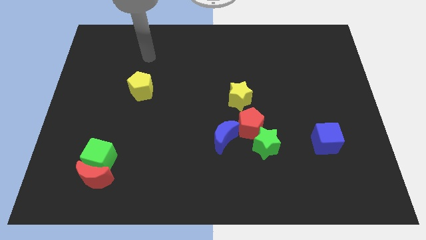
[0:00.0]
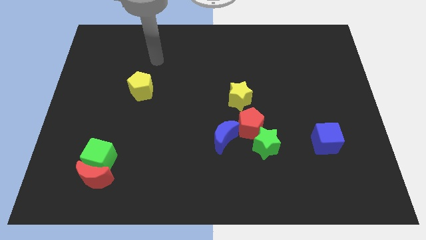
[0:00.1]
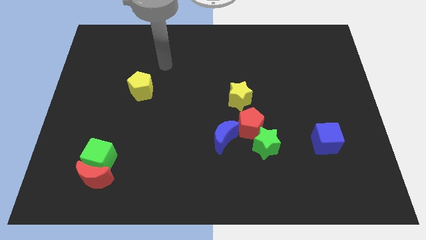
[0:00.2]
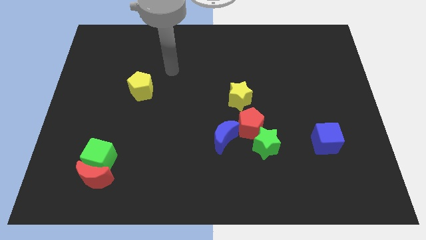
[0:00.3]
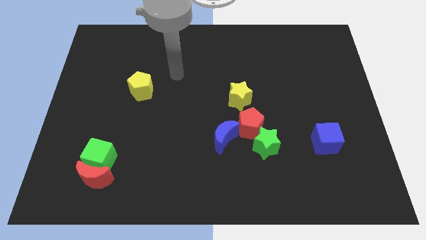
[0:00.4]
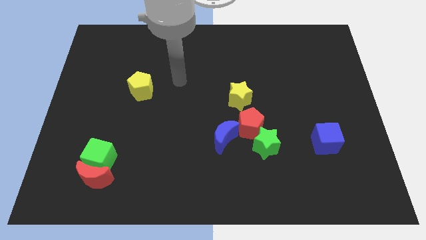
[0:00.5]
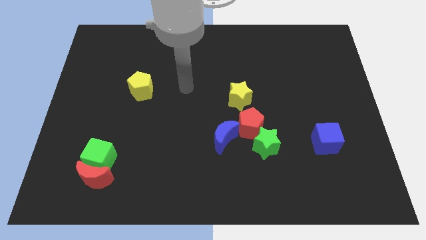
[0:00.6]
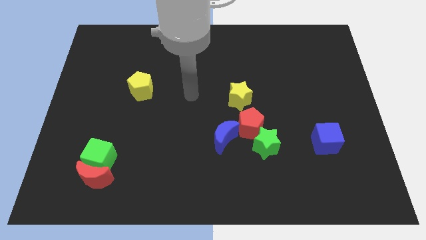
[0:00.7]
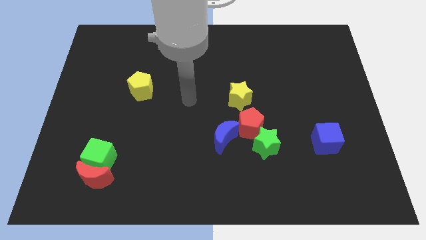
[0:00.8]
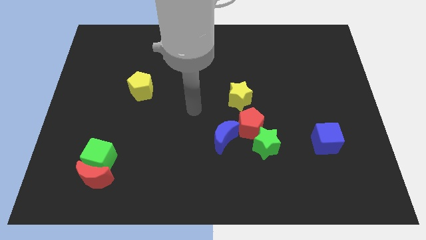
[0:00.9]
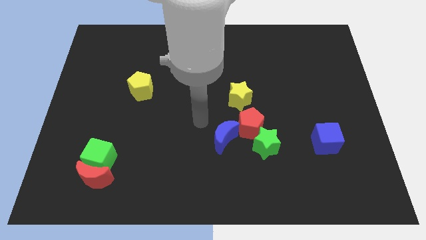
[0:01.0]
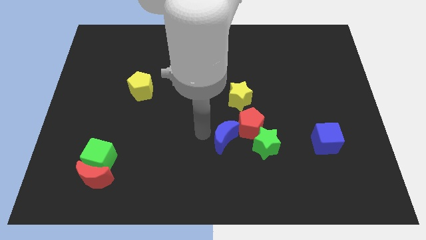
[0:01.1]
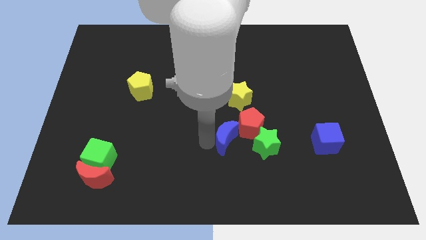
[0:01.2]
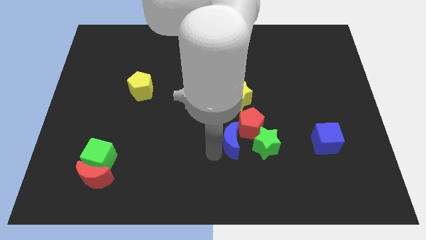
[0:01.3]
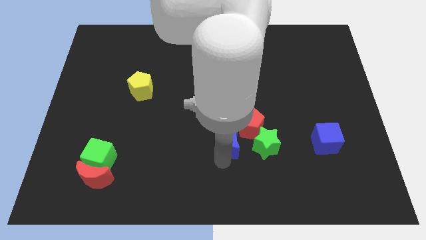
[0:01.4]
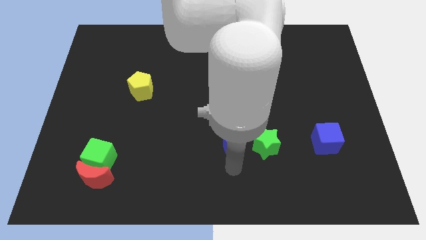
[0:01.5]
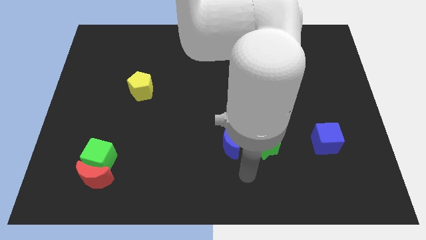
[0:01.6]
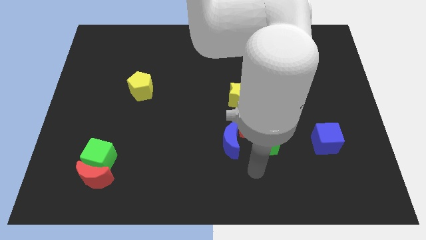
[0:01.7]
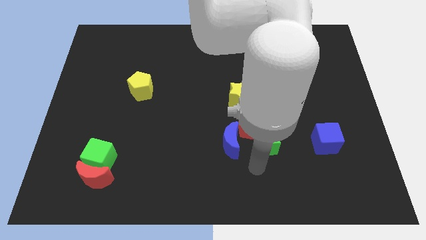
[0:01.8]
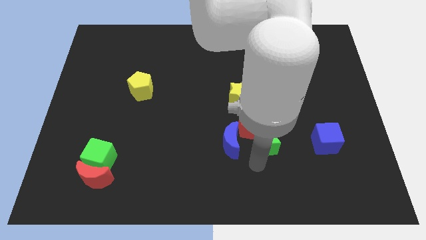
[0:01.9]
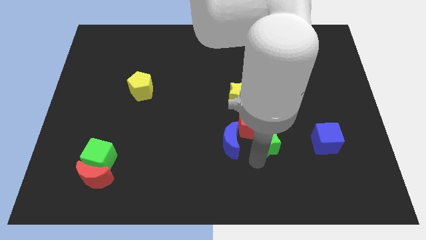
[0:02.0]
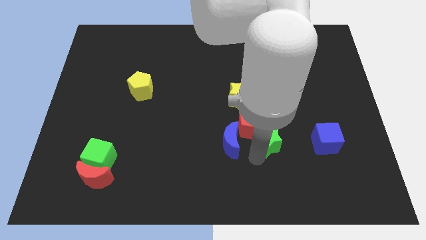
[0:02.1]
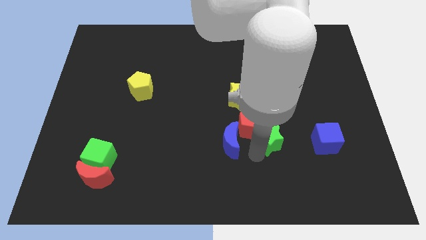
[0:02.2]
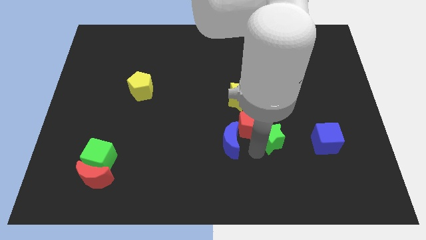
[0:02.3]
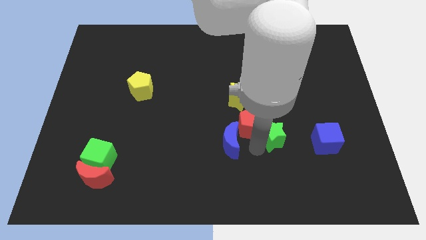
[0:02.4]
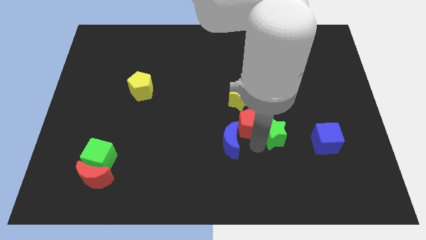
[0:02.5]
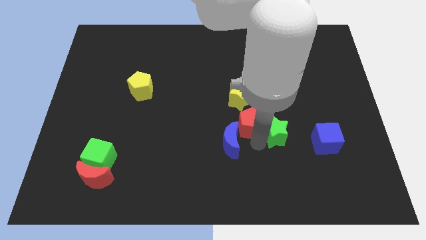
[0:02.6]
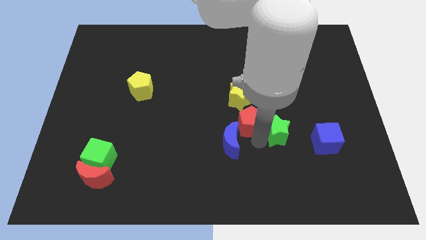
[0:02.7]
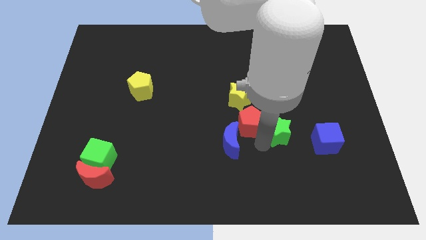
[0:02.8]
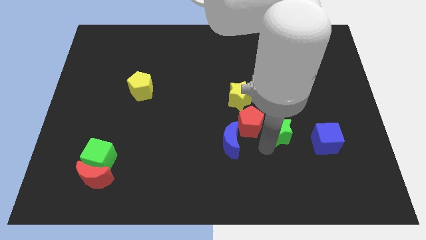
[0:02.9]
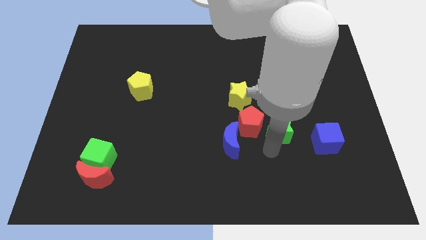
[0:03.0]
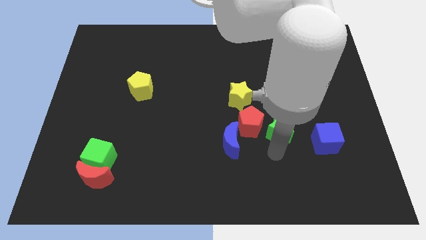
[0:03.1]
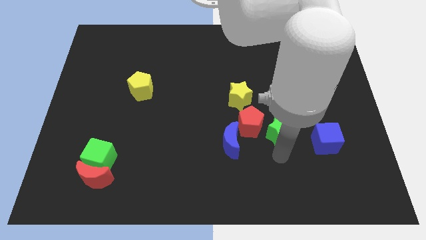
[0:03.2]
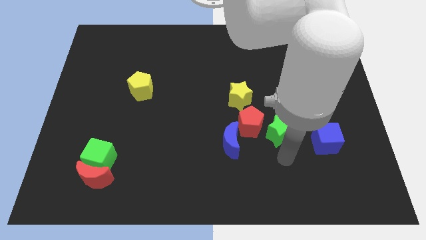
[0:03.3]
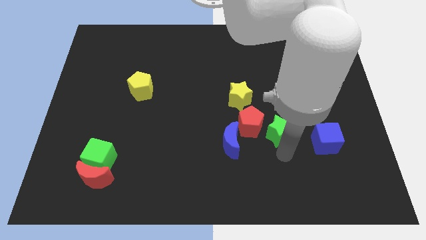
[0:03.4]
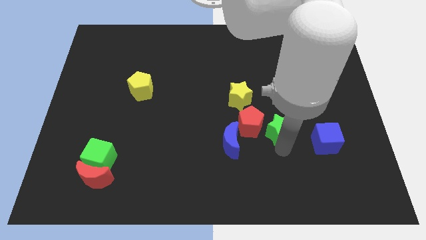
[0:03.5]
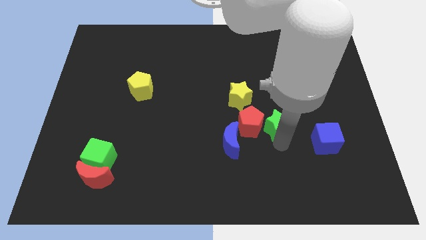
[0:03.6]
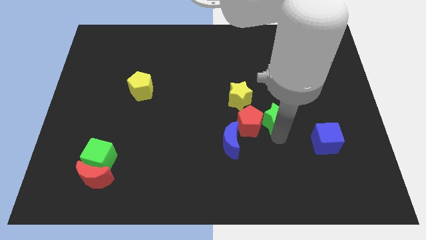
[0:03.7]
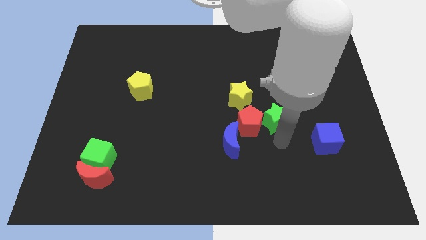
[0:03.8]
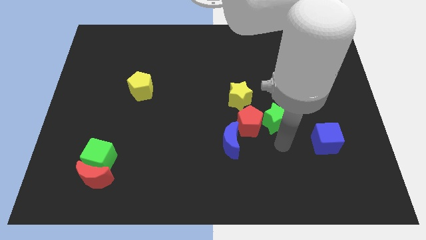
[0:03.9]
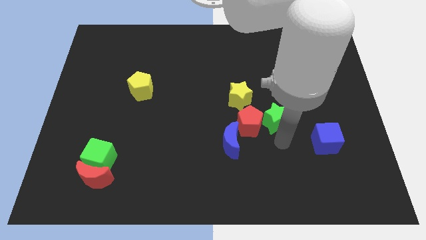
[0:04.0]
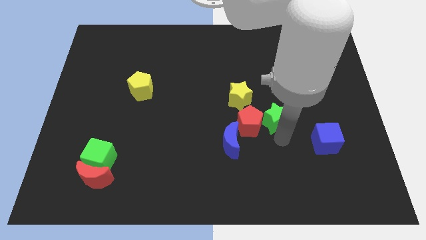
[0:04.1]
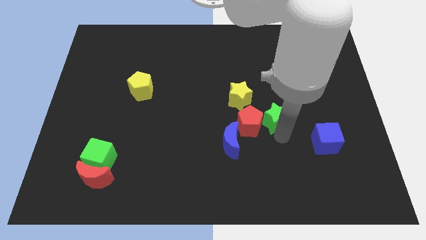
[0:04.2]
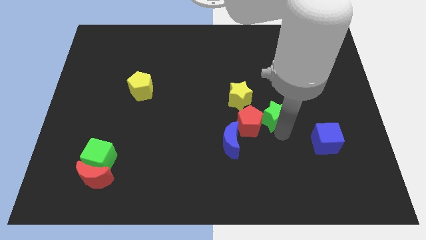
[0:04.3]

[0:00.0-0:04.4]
move the green star a bit upwards

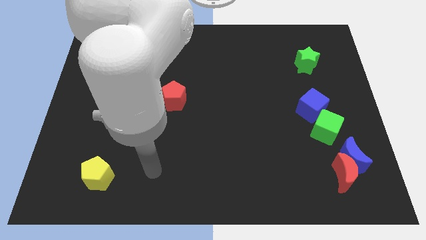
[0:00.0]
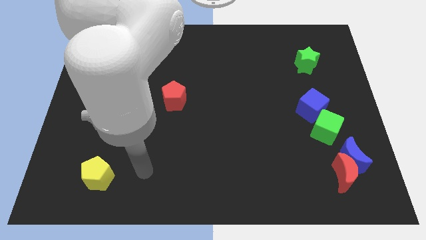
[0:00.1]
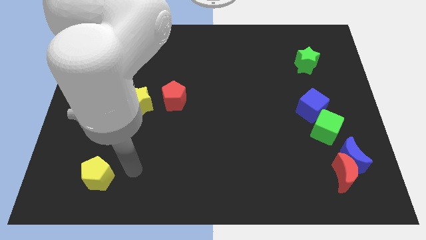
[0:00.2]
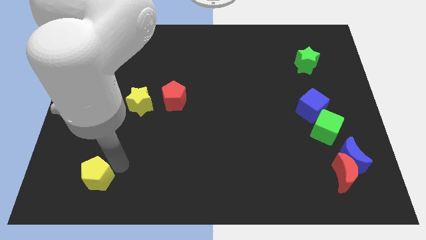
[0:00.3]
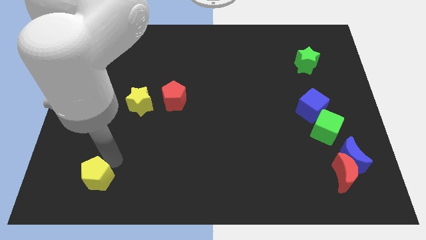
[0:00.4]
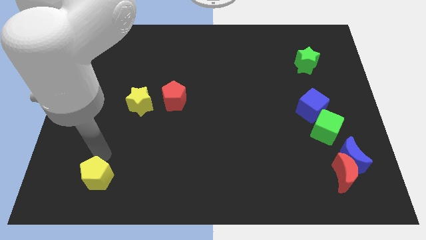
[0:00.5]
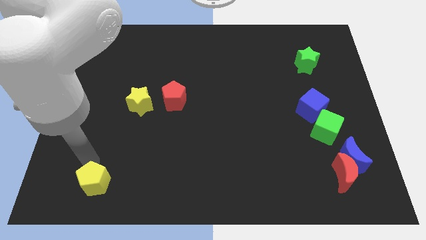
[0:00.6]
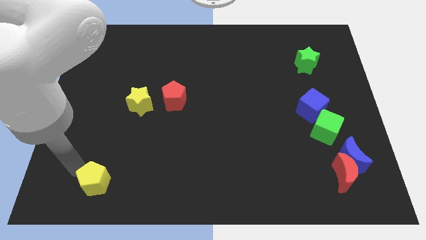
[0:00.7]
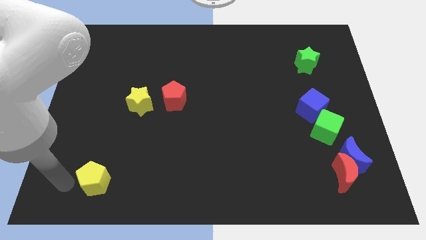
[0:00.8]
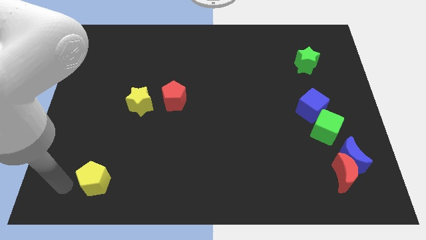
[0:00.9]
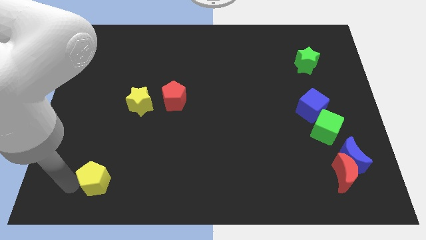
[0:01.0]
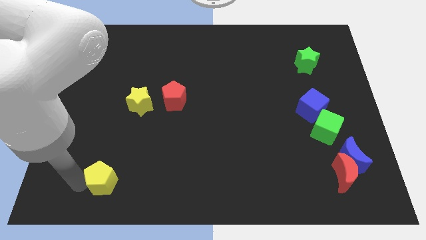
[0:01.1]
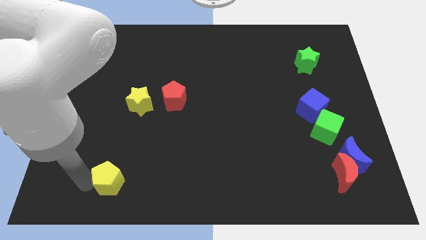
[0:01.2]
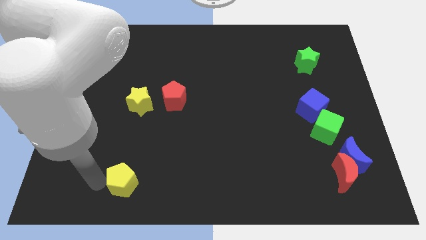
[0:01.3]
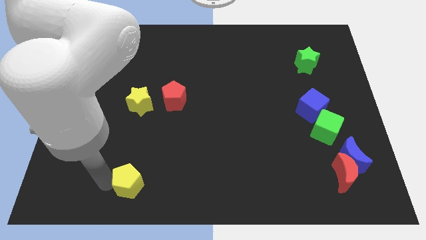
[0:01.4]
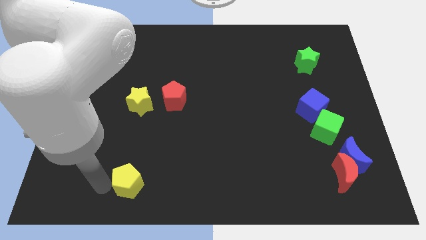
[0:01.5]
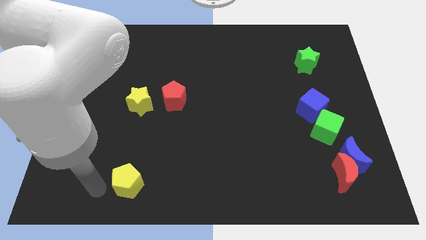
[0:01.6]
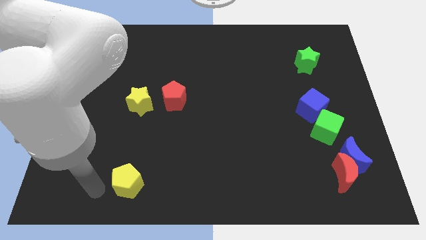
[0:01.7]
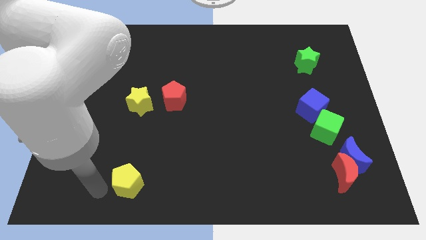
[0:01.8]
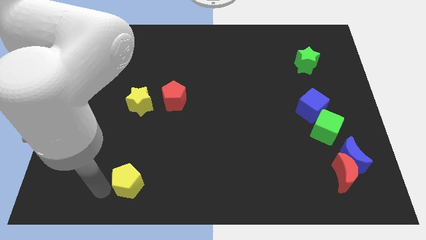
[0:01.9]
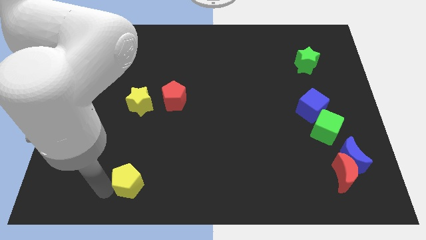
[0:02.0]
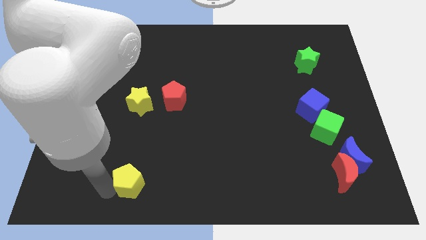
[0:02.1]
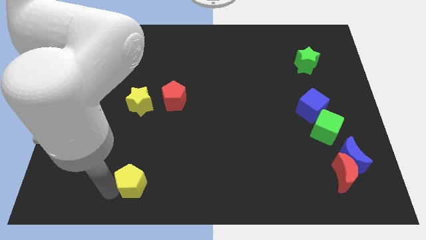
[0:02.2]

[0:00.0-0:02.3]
move the yellow pentagon somewhat to the right

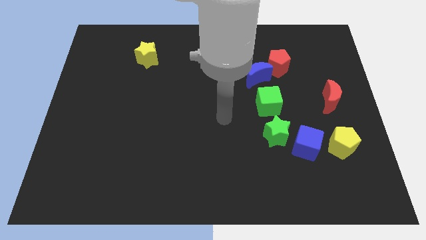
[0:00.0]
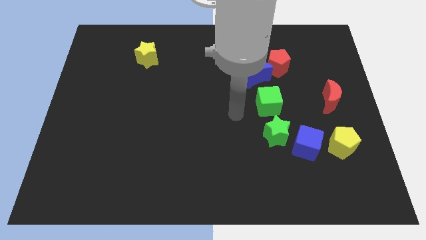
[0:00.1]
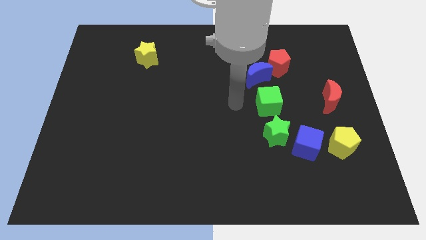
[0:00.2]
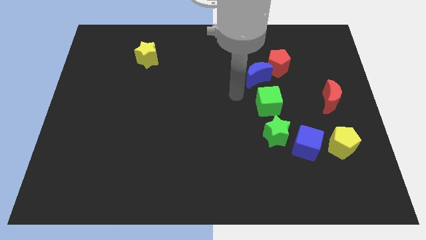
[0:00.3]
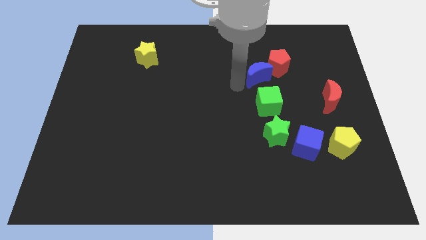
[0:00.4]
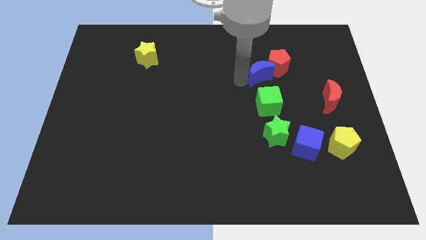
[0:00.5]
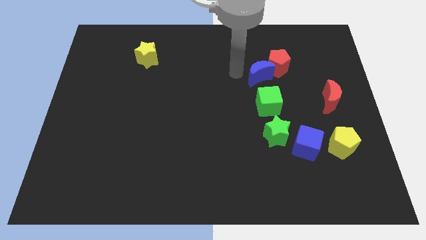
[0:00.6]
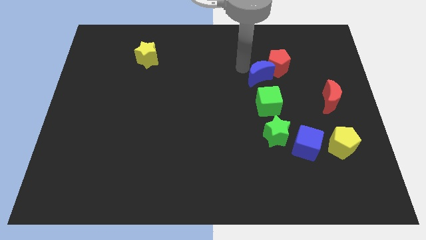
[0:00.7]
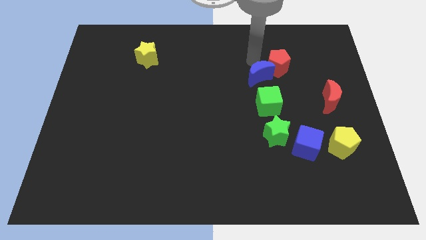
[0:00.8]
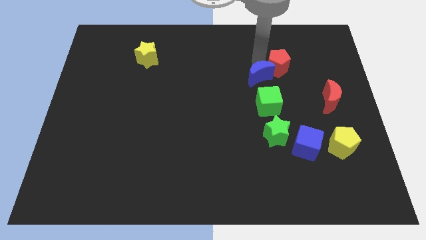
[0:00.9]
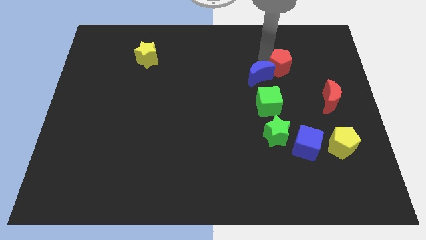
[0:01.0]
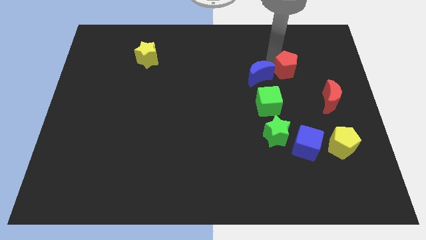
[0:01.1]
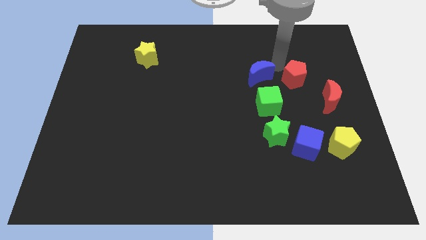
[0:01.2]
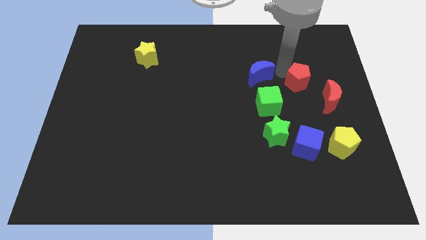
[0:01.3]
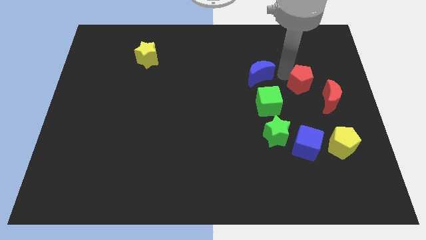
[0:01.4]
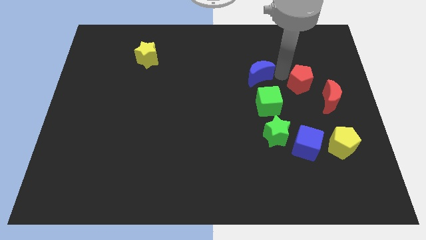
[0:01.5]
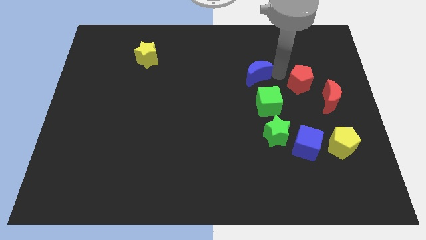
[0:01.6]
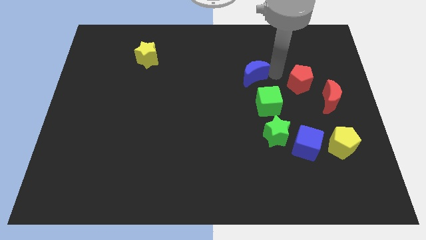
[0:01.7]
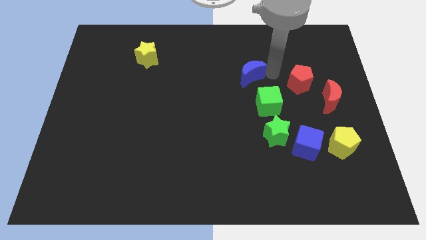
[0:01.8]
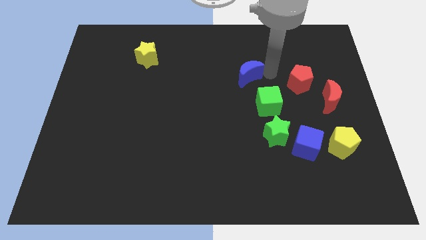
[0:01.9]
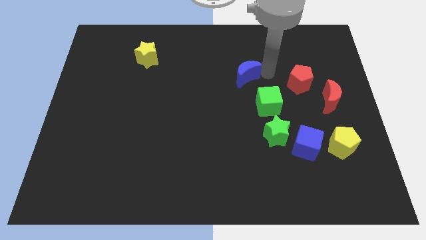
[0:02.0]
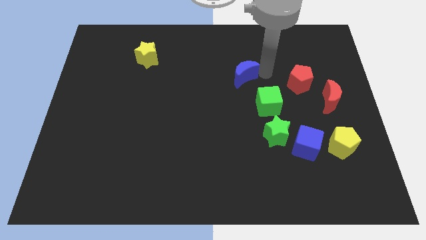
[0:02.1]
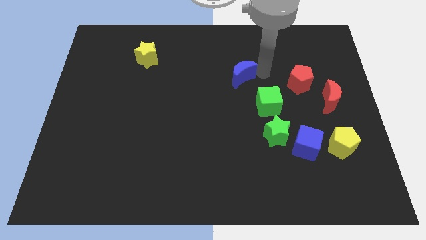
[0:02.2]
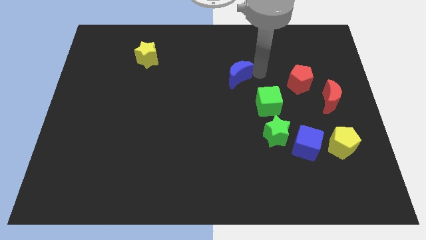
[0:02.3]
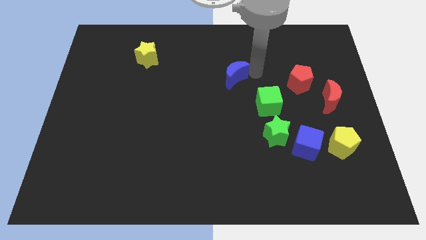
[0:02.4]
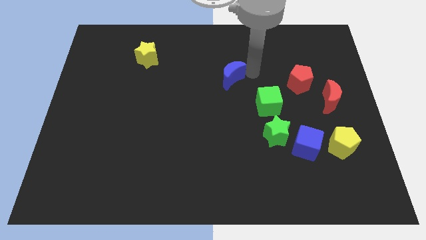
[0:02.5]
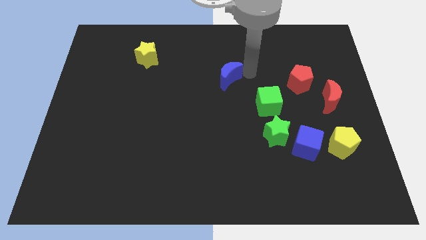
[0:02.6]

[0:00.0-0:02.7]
move the blue moon somewhat left
